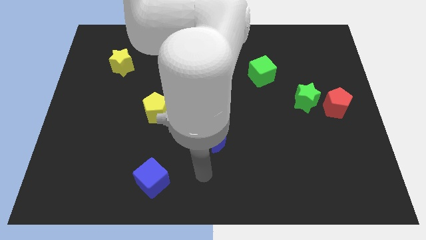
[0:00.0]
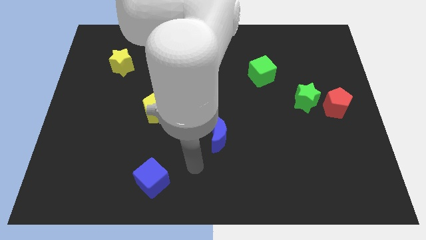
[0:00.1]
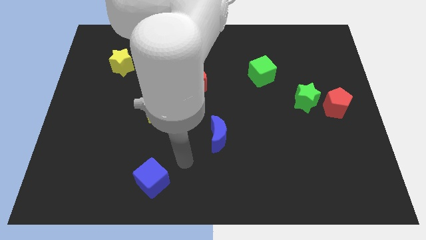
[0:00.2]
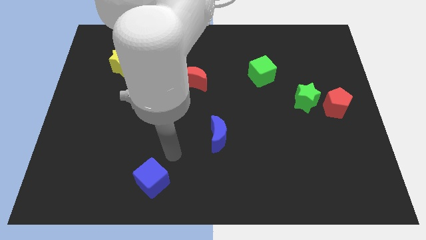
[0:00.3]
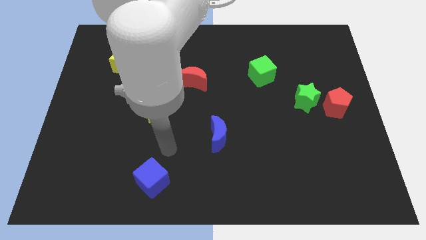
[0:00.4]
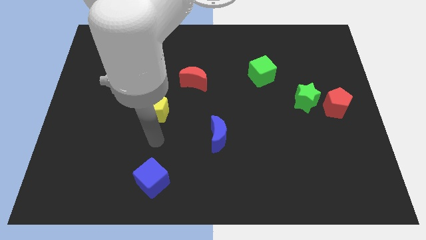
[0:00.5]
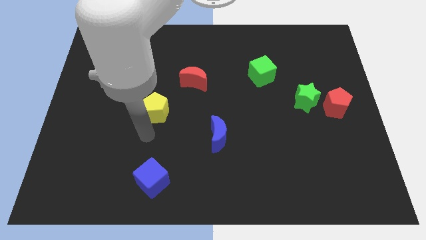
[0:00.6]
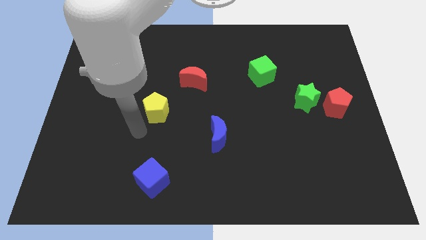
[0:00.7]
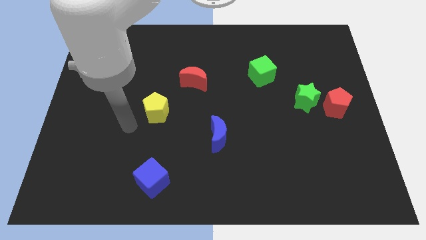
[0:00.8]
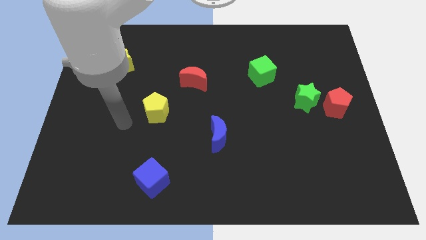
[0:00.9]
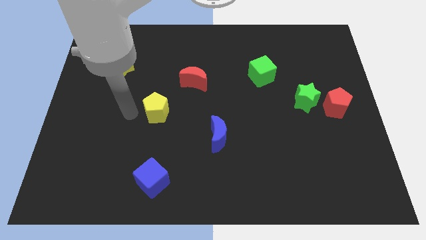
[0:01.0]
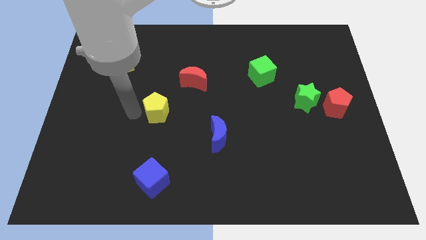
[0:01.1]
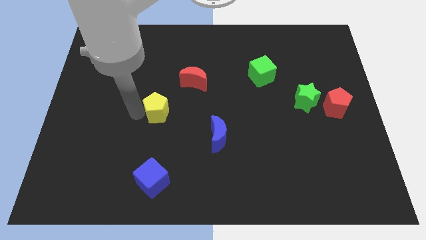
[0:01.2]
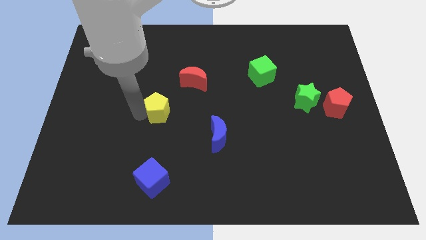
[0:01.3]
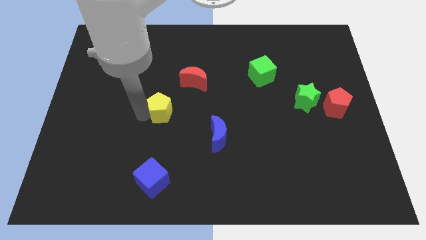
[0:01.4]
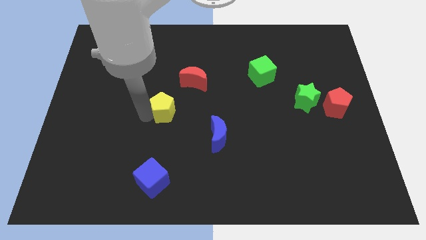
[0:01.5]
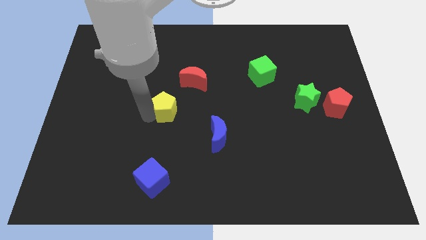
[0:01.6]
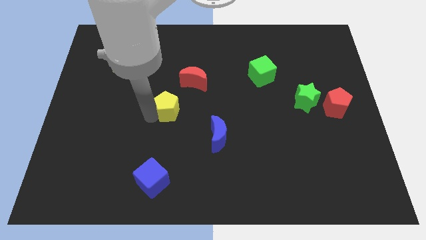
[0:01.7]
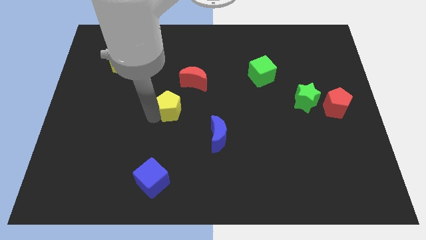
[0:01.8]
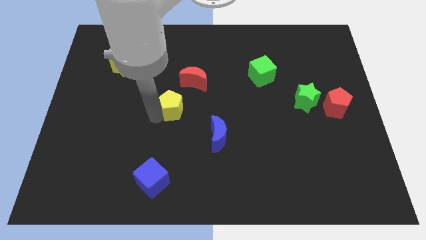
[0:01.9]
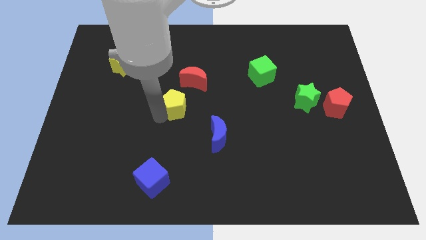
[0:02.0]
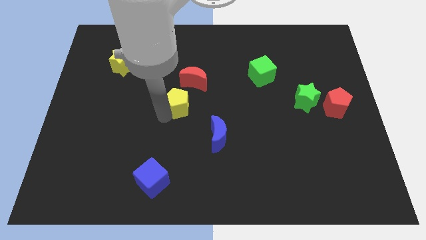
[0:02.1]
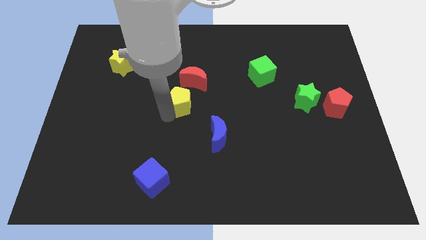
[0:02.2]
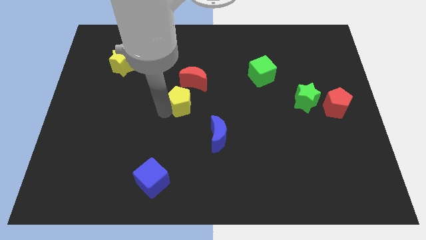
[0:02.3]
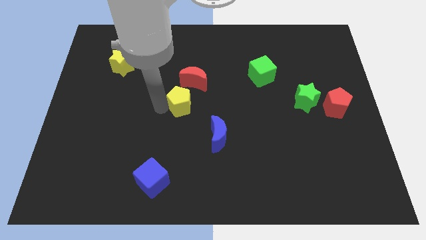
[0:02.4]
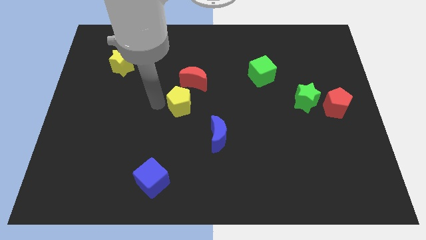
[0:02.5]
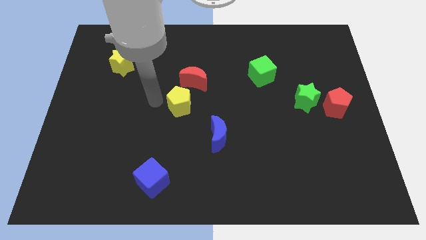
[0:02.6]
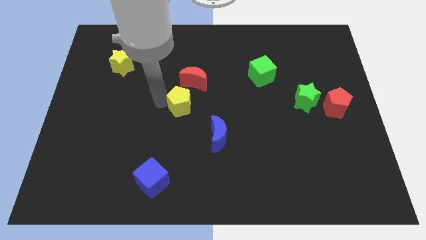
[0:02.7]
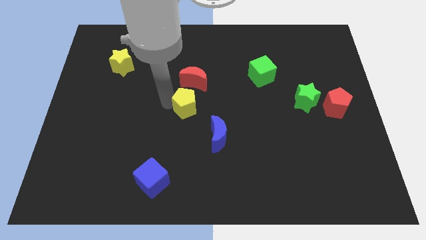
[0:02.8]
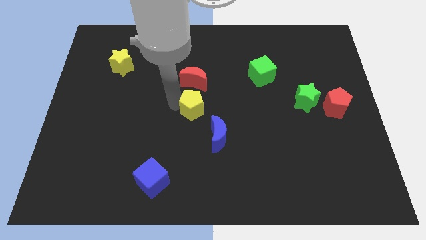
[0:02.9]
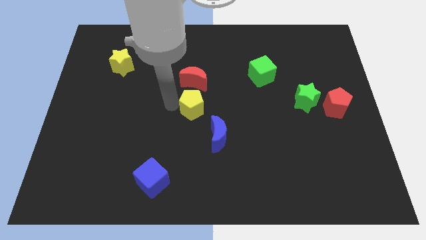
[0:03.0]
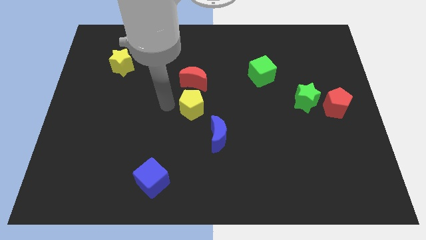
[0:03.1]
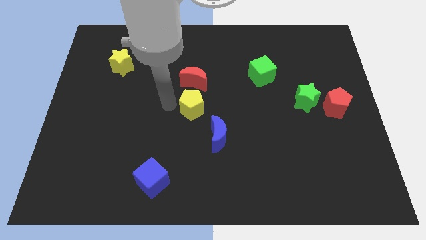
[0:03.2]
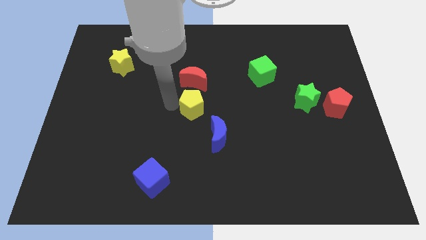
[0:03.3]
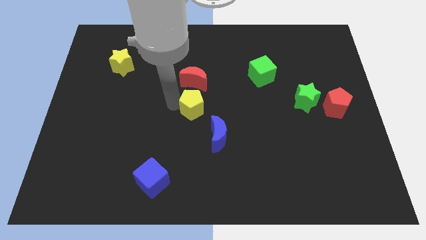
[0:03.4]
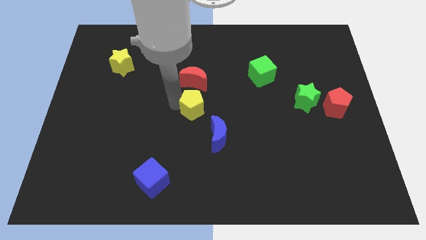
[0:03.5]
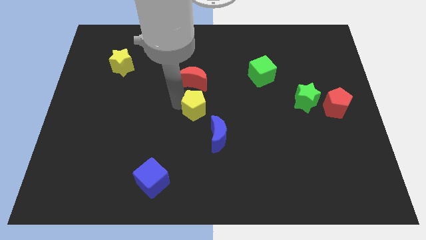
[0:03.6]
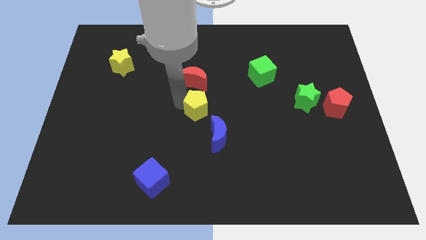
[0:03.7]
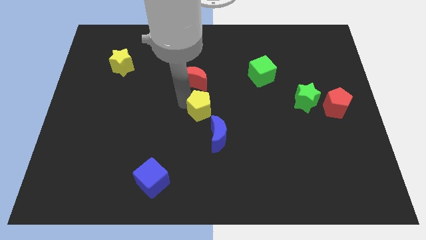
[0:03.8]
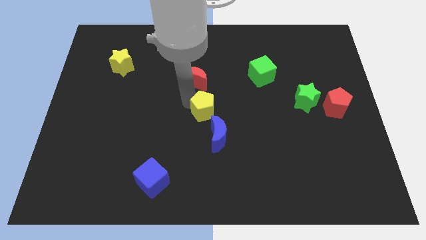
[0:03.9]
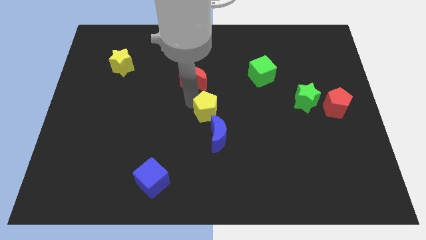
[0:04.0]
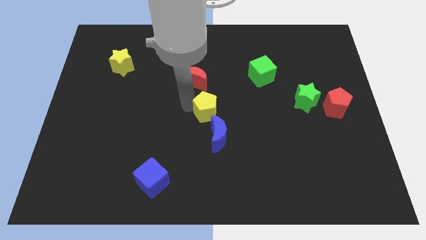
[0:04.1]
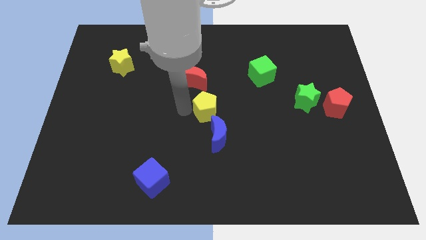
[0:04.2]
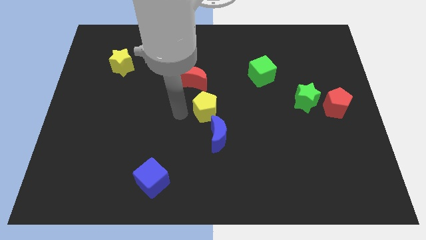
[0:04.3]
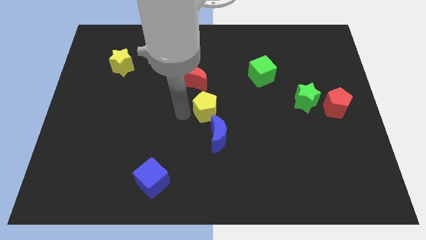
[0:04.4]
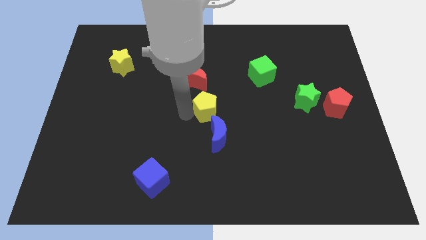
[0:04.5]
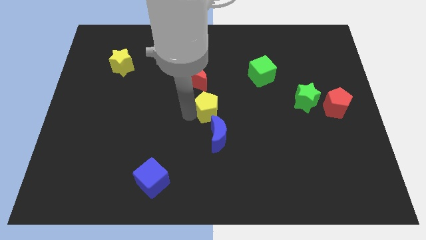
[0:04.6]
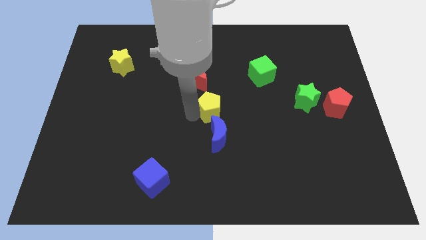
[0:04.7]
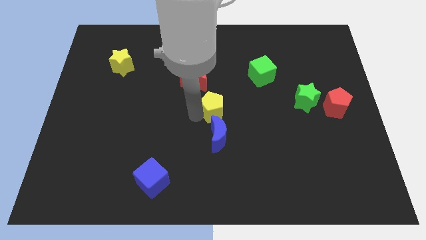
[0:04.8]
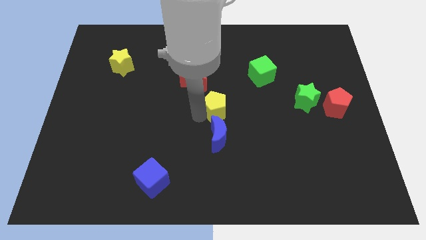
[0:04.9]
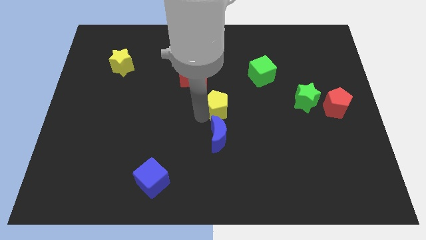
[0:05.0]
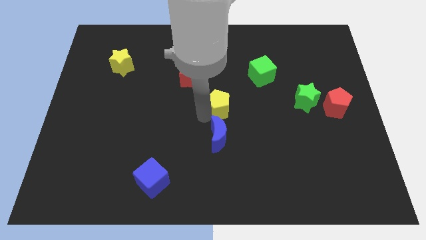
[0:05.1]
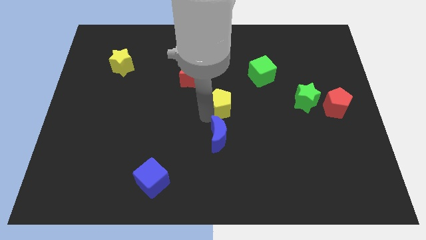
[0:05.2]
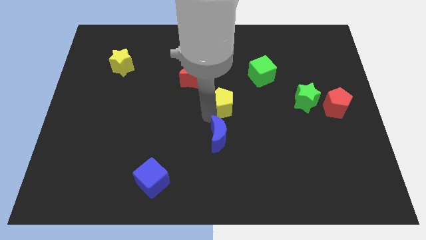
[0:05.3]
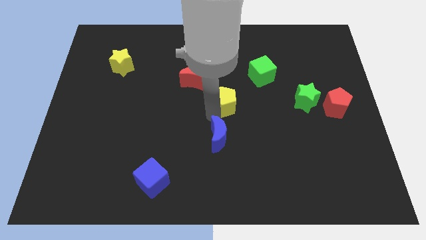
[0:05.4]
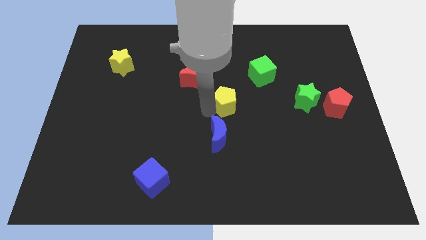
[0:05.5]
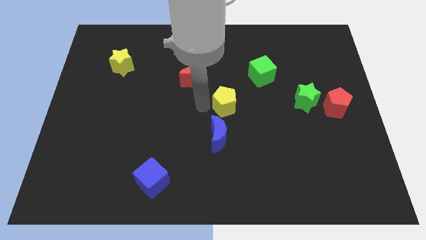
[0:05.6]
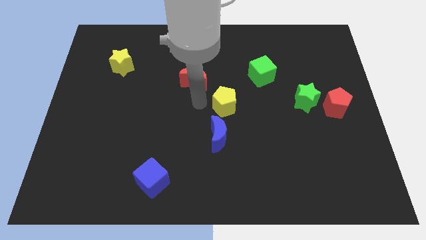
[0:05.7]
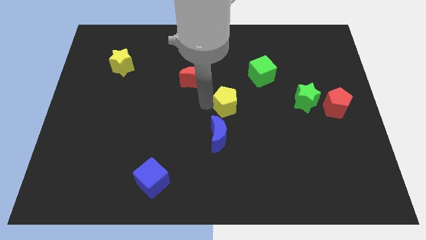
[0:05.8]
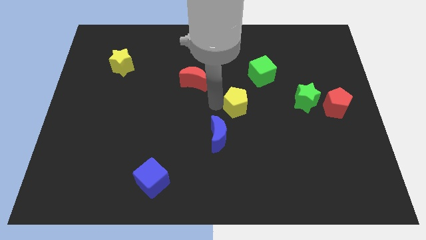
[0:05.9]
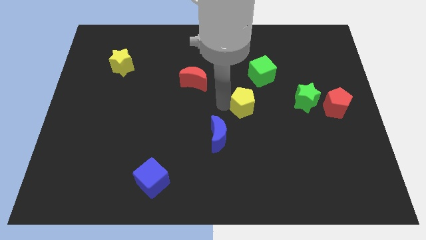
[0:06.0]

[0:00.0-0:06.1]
move the yellow pentagon to the right

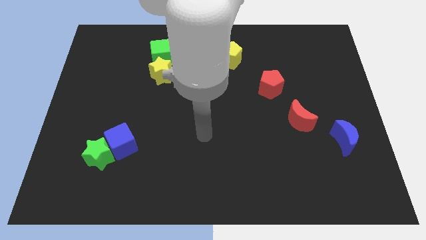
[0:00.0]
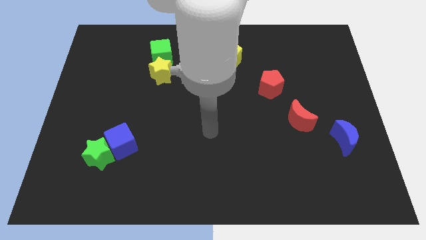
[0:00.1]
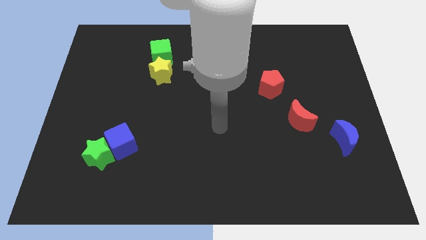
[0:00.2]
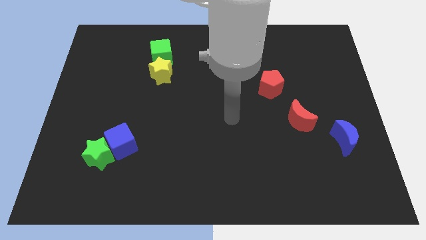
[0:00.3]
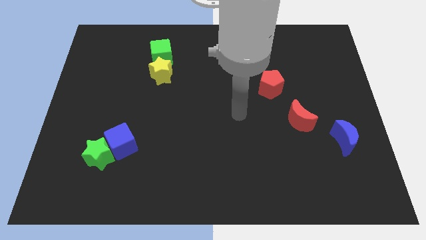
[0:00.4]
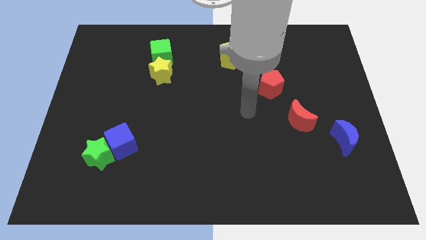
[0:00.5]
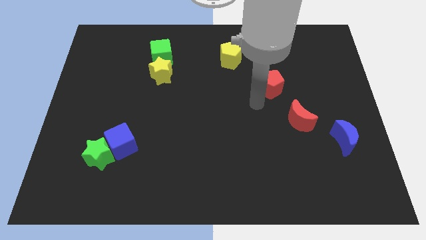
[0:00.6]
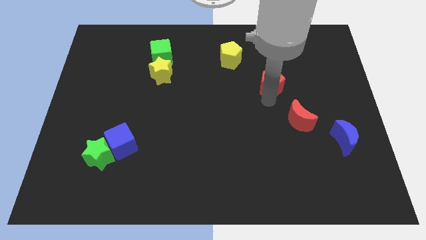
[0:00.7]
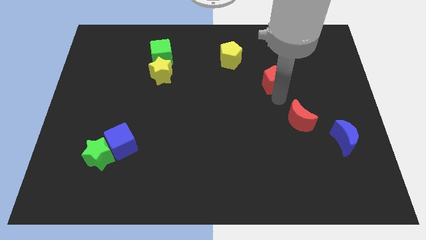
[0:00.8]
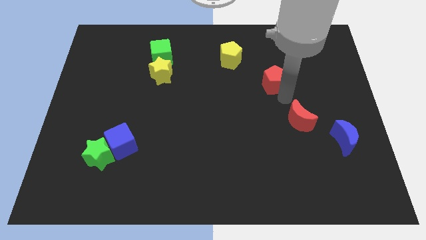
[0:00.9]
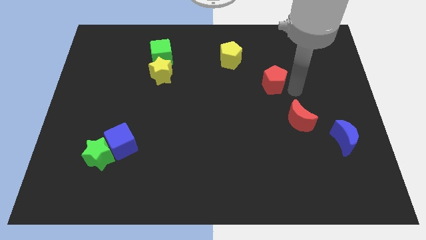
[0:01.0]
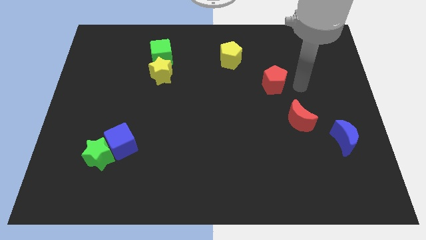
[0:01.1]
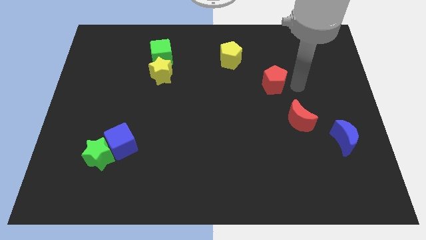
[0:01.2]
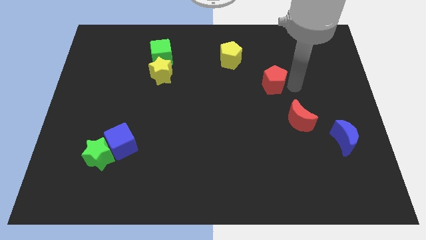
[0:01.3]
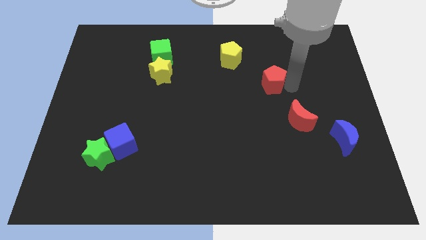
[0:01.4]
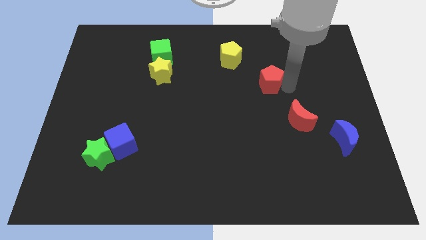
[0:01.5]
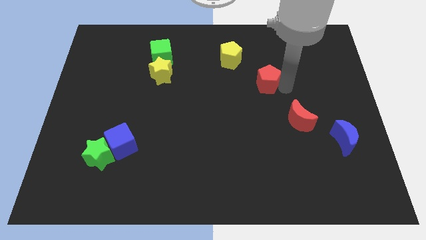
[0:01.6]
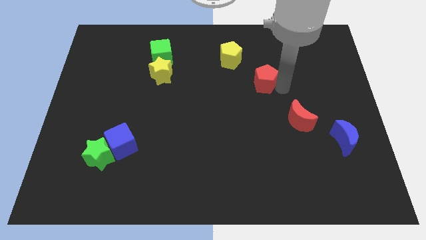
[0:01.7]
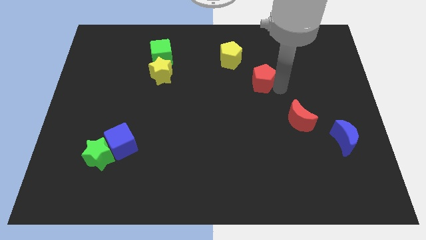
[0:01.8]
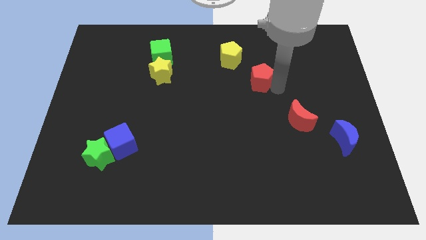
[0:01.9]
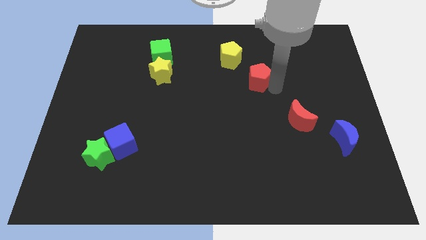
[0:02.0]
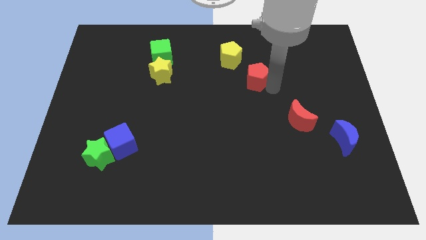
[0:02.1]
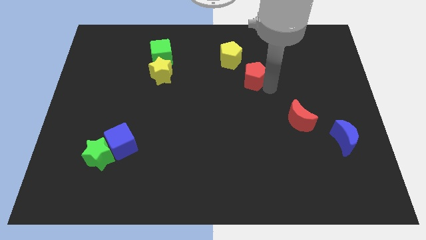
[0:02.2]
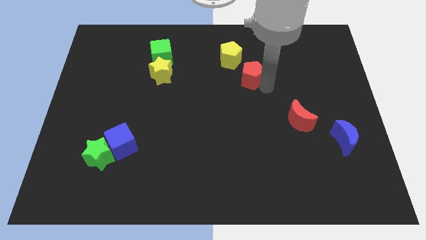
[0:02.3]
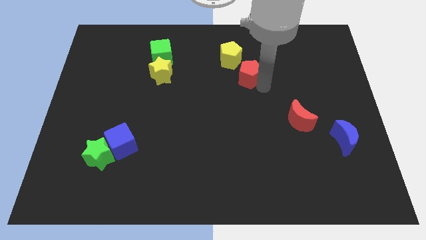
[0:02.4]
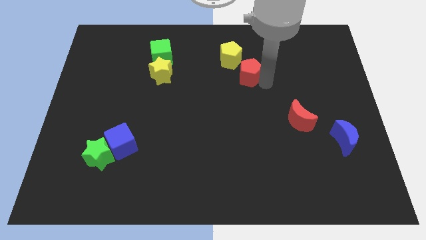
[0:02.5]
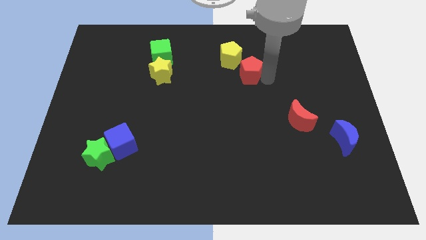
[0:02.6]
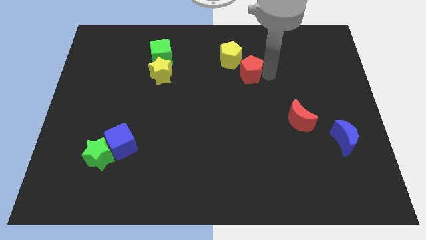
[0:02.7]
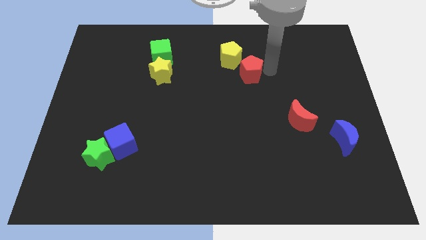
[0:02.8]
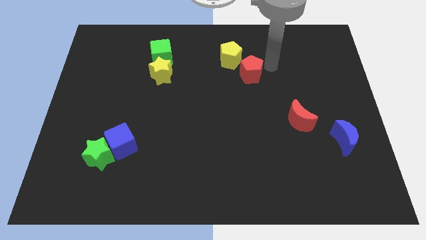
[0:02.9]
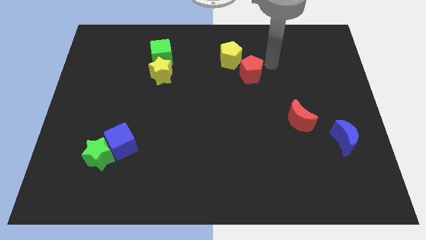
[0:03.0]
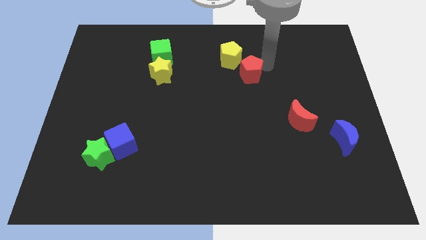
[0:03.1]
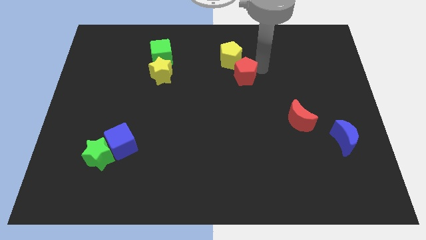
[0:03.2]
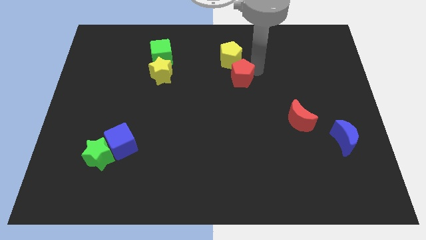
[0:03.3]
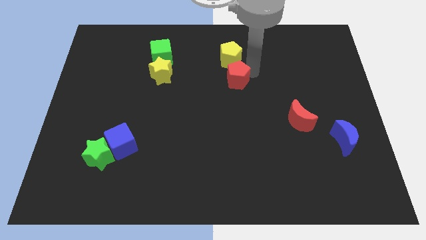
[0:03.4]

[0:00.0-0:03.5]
slide the red pentagon a little left
